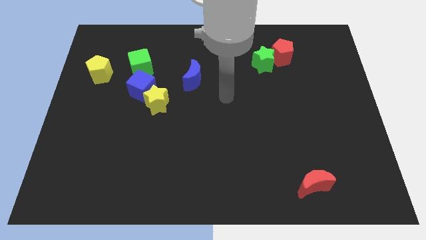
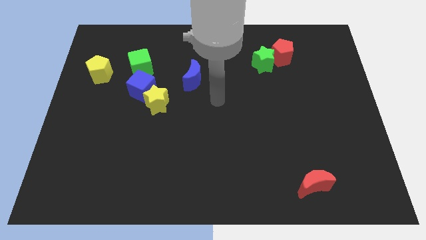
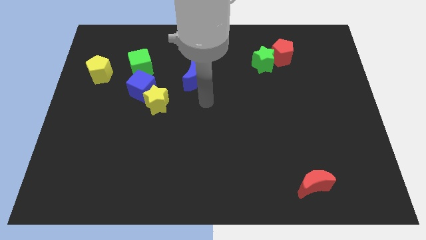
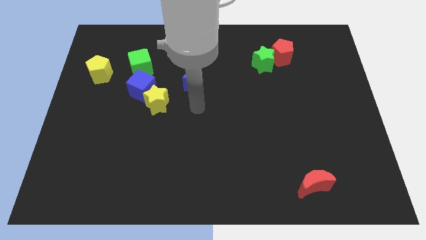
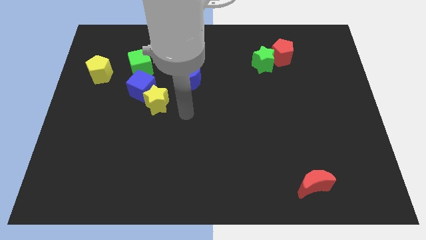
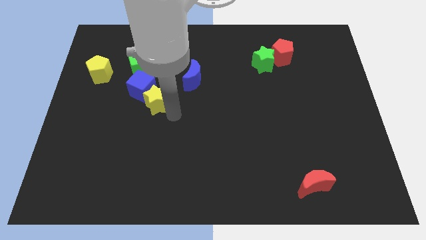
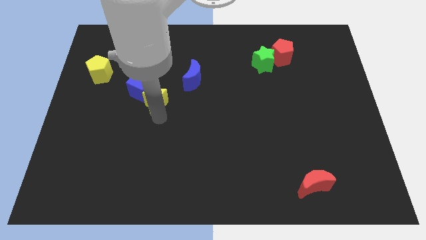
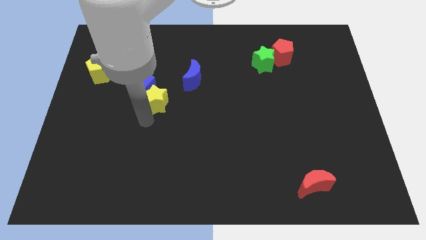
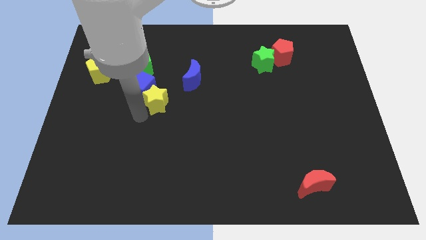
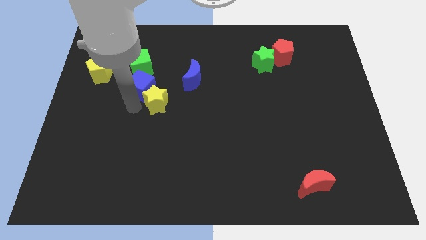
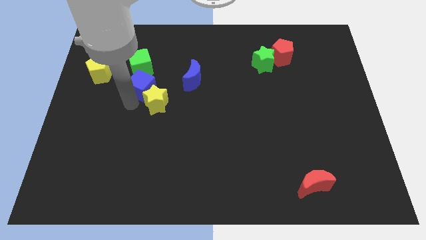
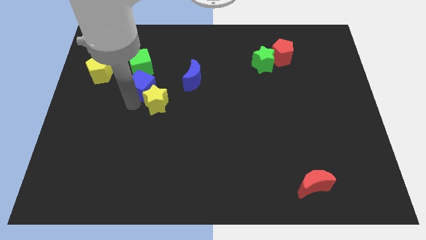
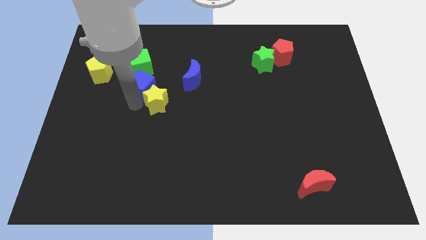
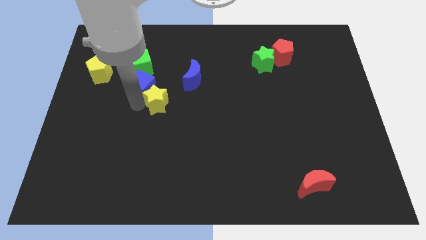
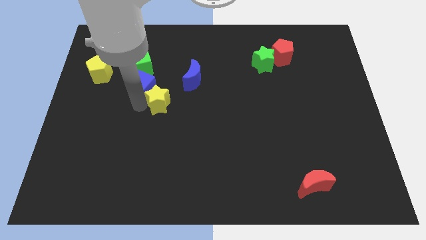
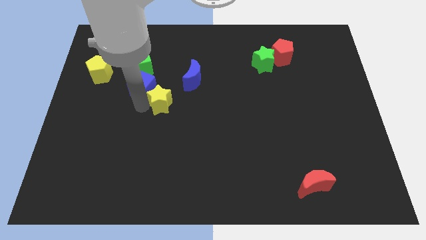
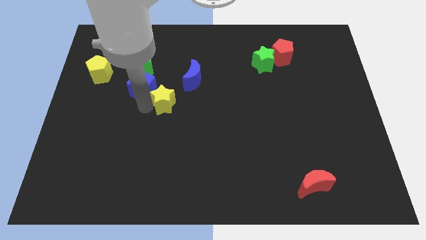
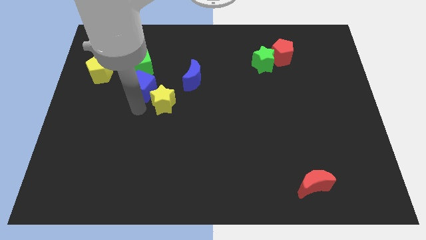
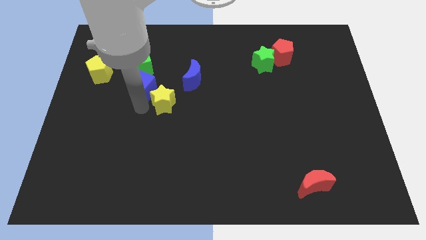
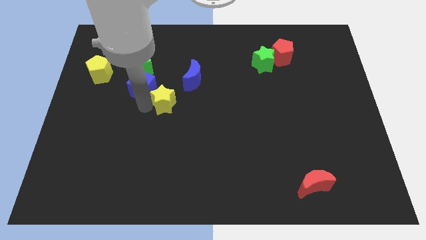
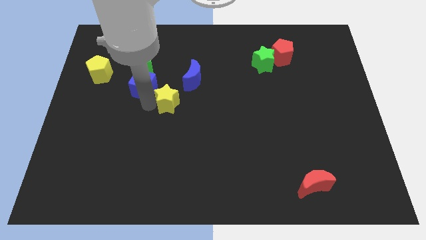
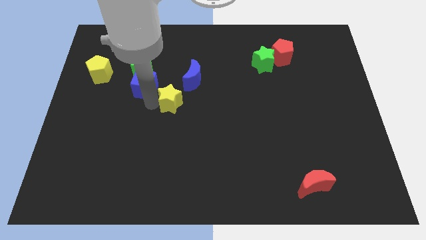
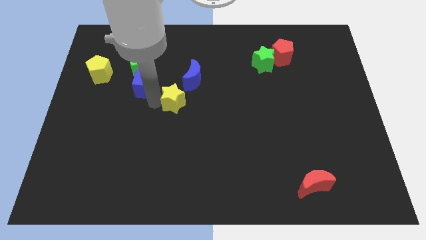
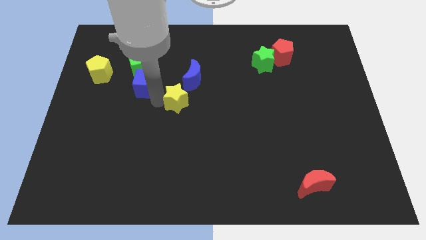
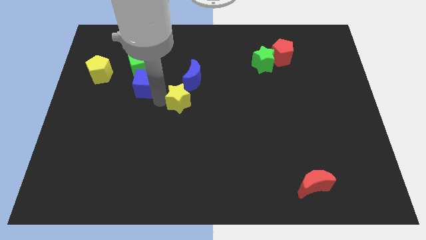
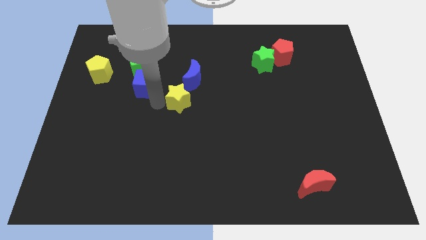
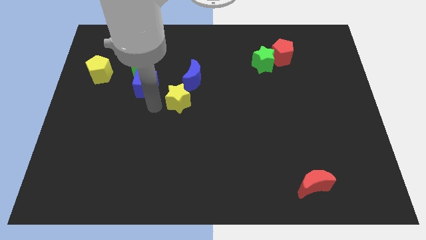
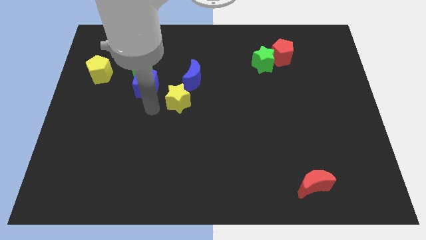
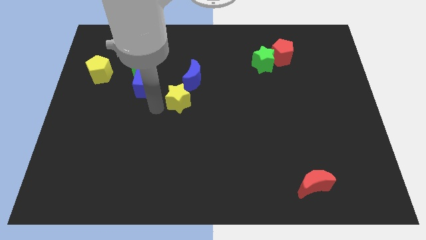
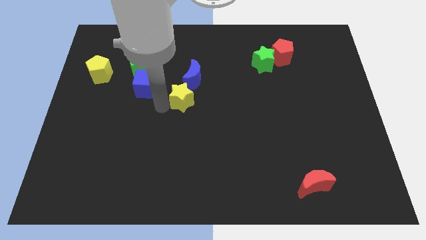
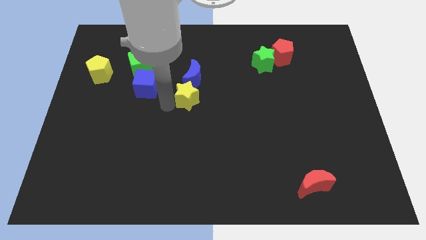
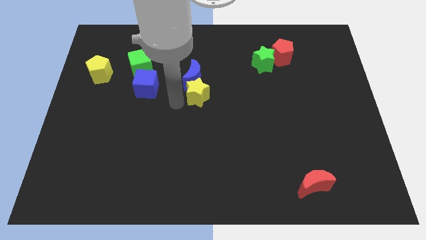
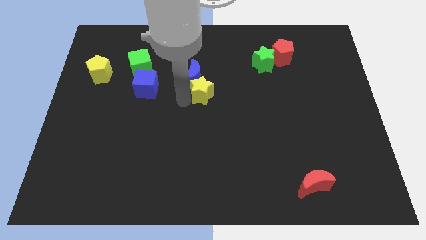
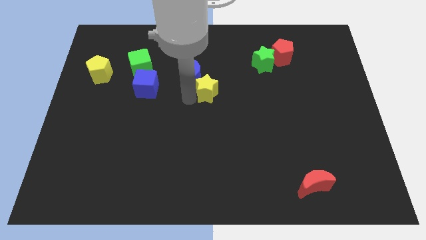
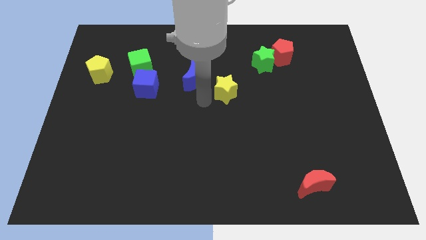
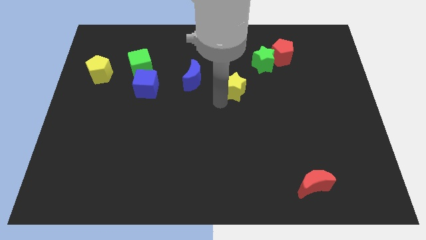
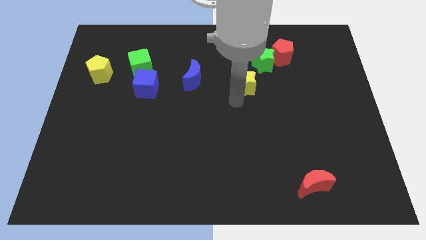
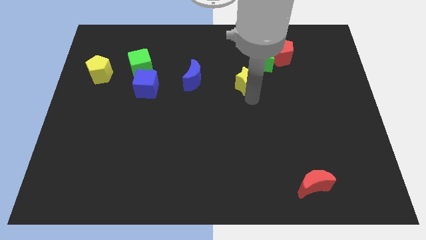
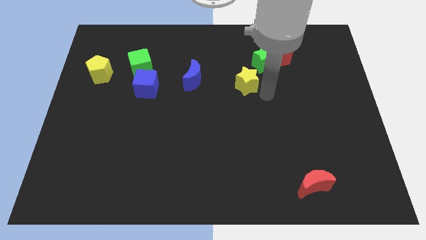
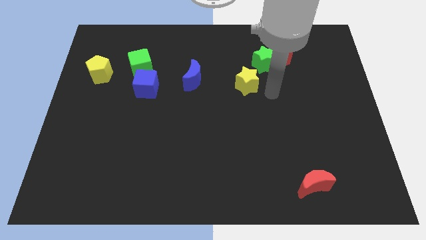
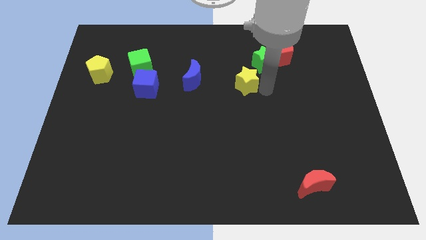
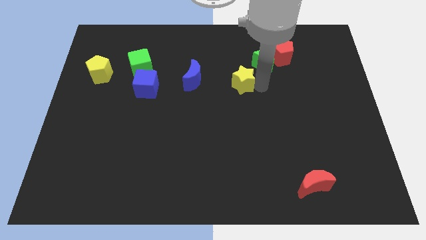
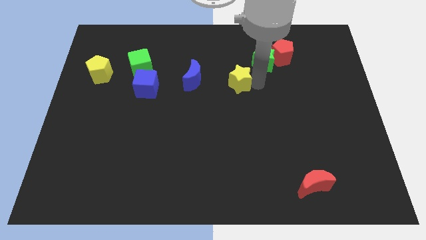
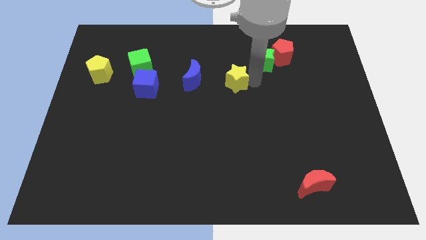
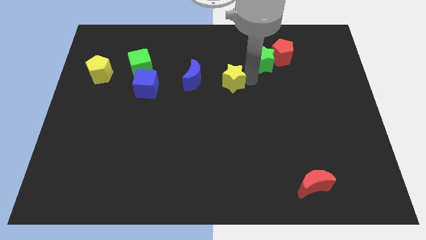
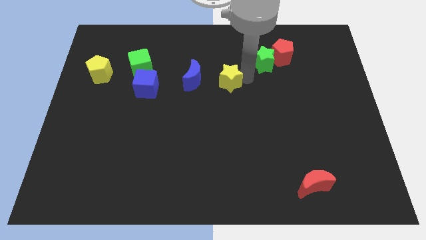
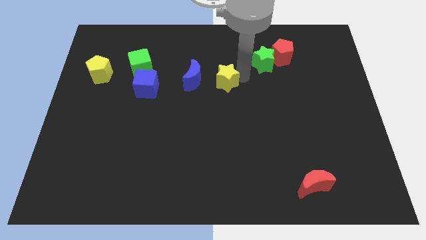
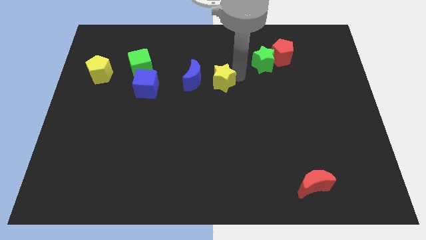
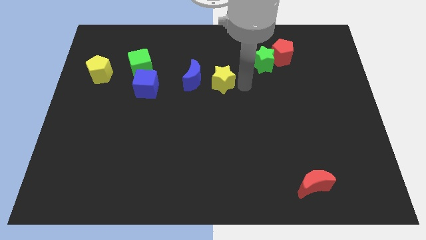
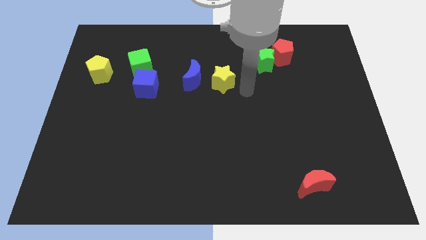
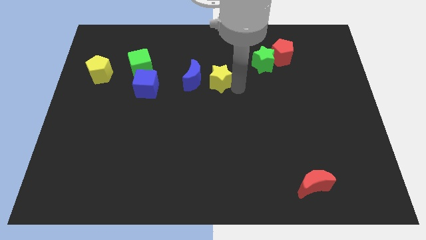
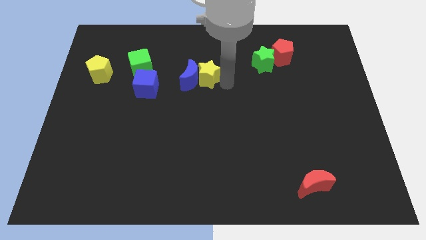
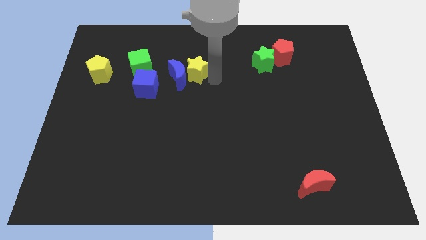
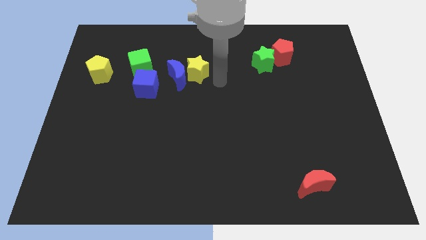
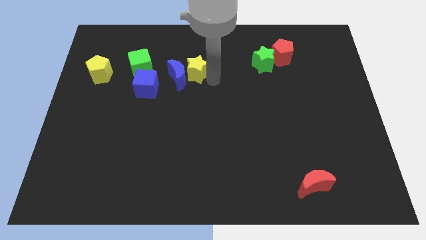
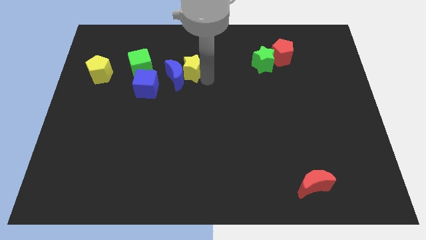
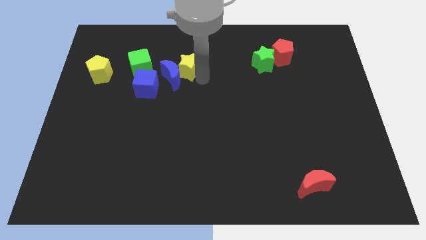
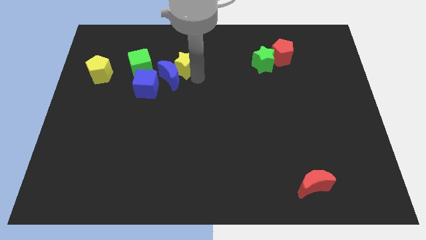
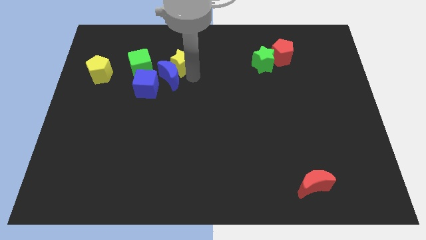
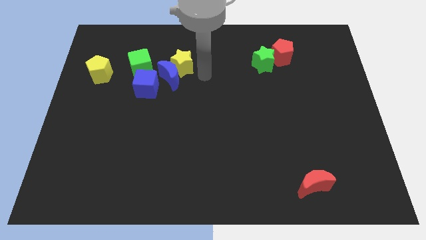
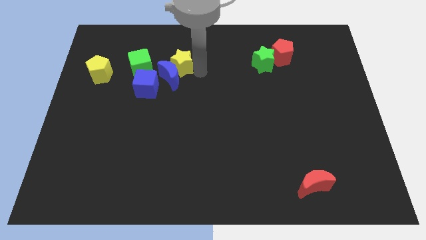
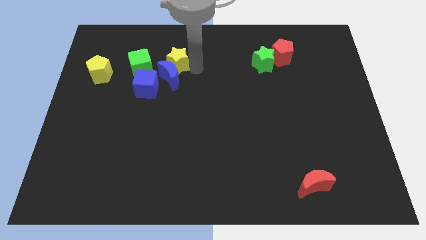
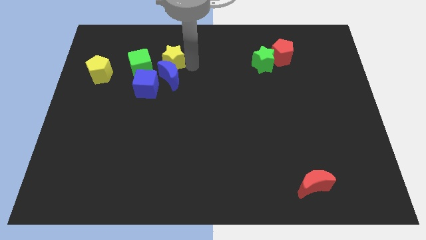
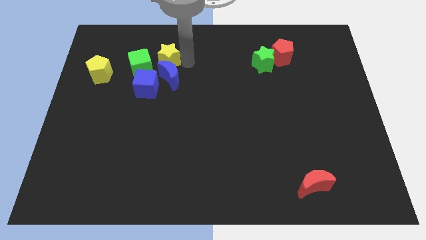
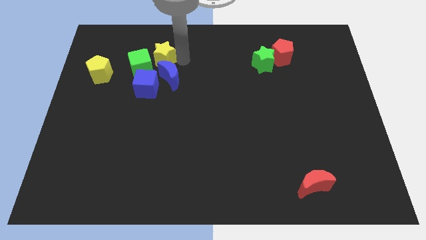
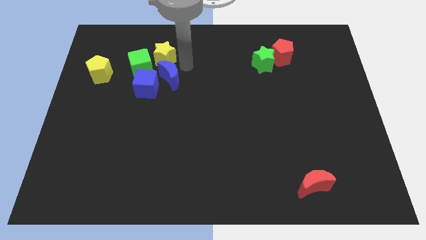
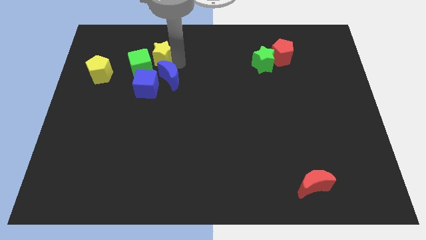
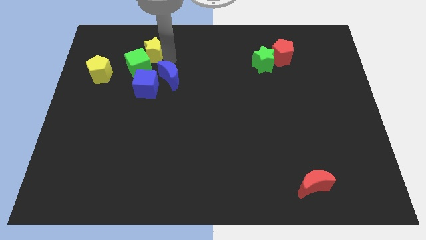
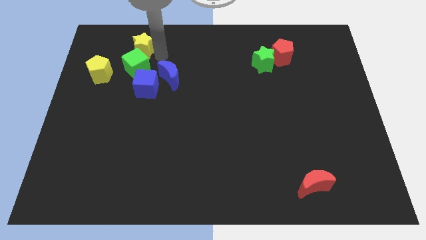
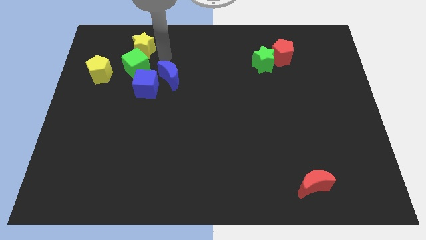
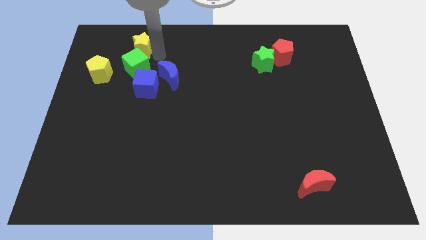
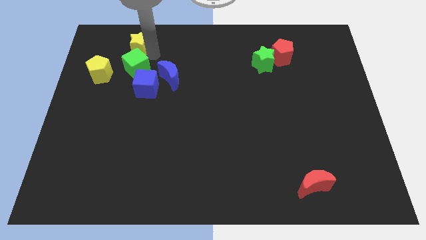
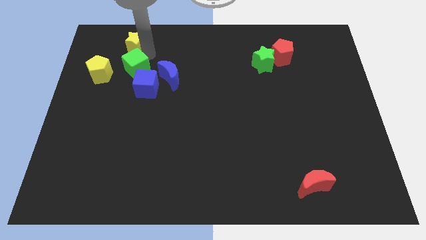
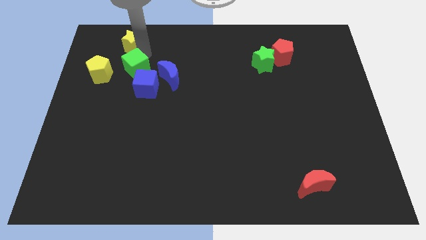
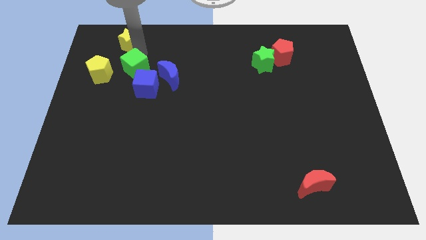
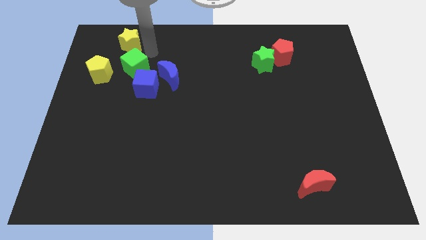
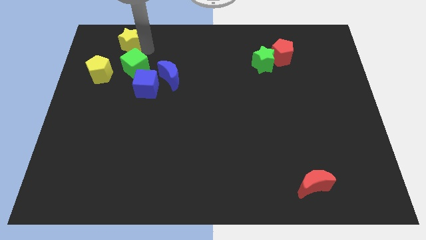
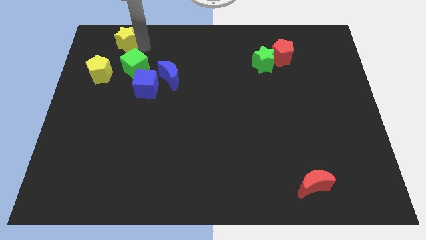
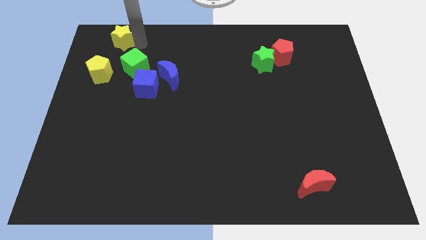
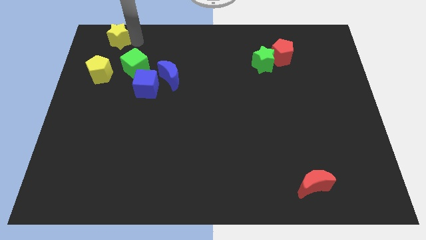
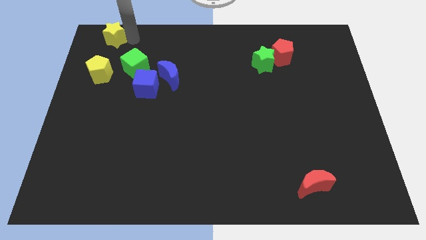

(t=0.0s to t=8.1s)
push the yellow star to the top left corner
